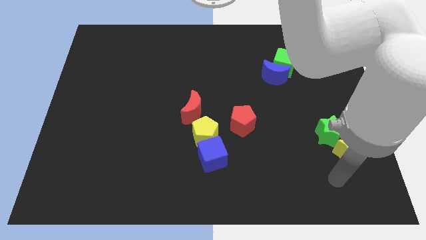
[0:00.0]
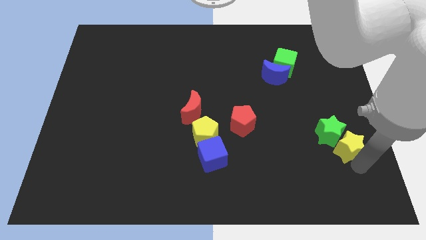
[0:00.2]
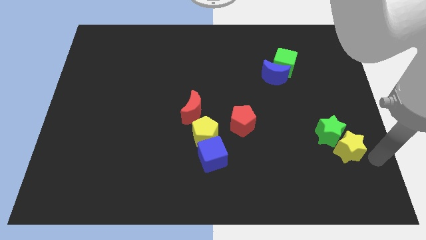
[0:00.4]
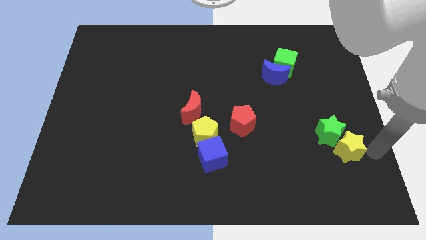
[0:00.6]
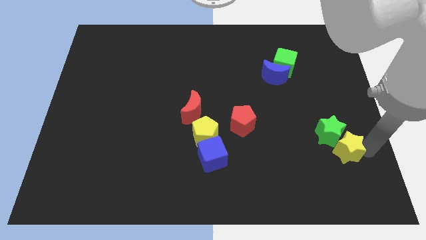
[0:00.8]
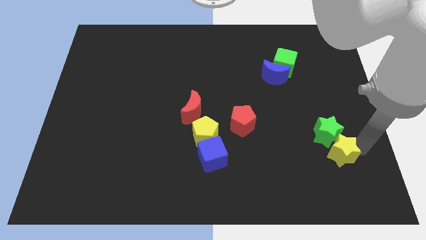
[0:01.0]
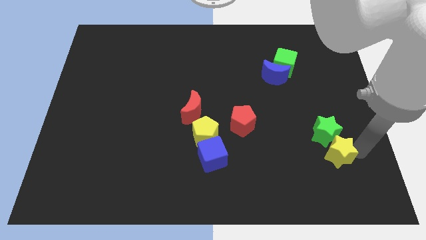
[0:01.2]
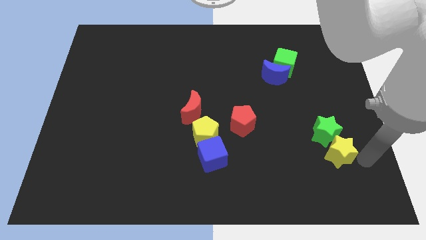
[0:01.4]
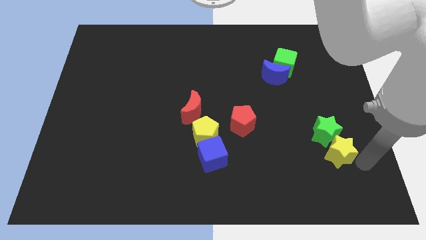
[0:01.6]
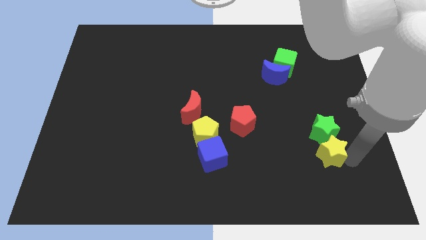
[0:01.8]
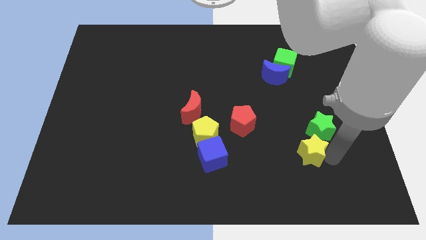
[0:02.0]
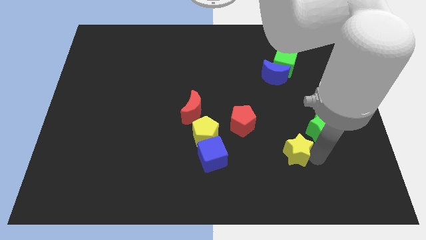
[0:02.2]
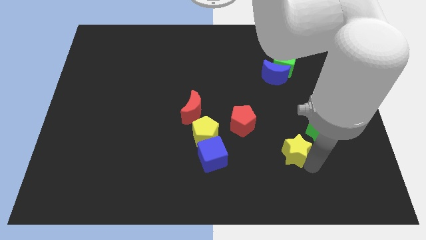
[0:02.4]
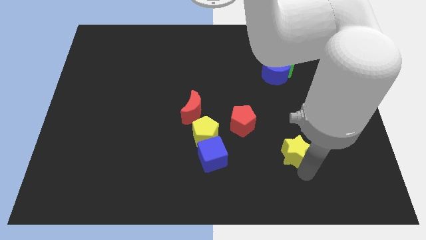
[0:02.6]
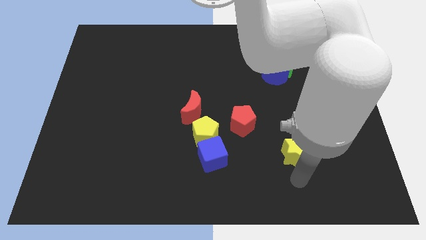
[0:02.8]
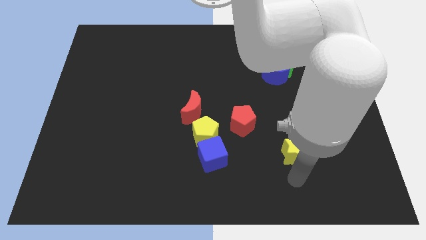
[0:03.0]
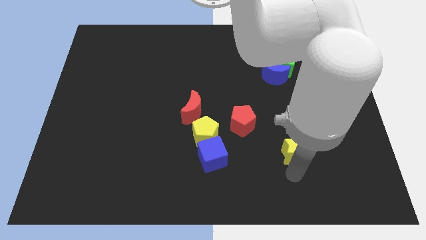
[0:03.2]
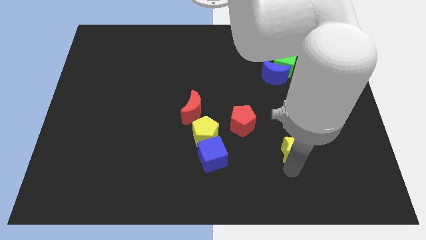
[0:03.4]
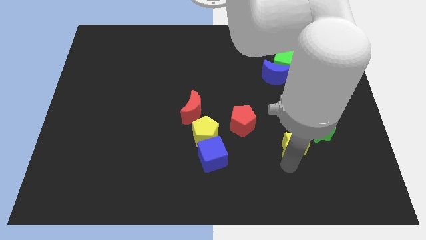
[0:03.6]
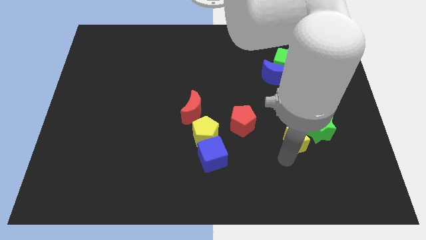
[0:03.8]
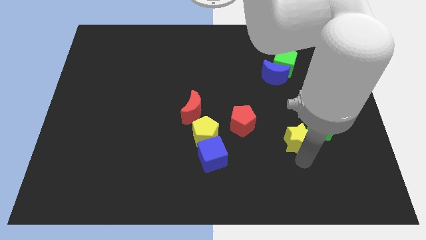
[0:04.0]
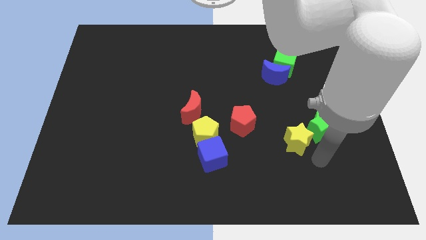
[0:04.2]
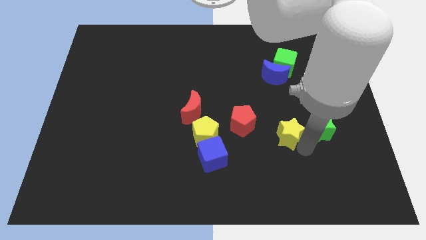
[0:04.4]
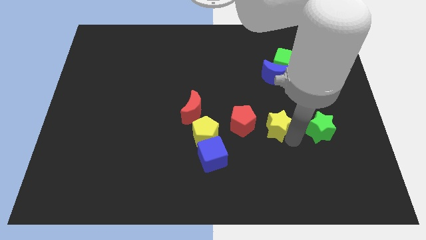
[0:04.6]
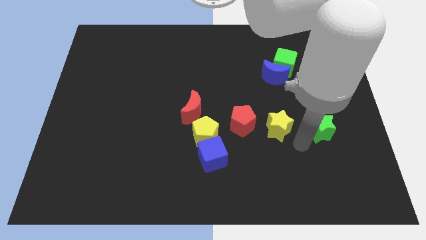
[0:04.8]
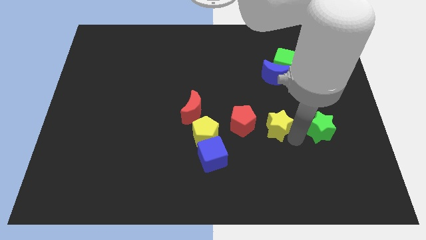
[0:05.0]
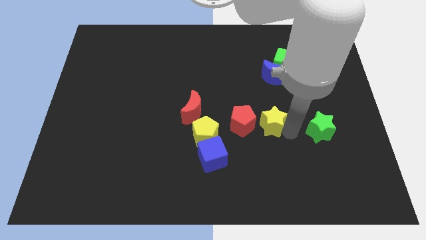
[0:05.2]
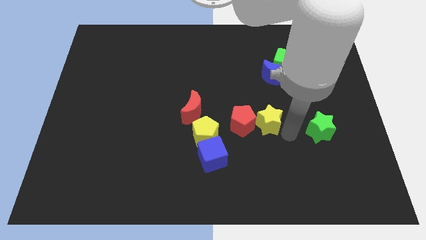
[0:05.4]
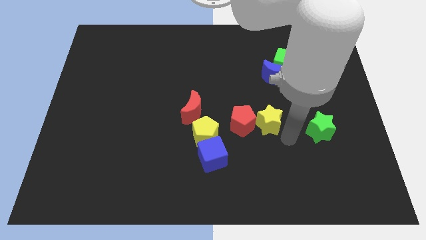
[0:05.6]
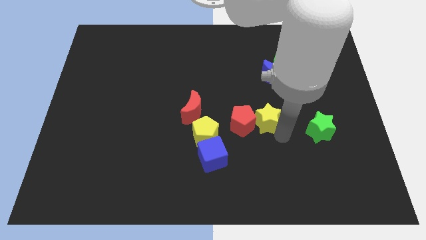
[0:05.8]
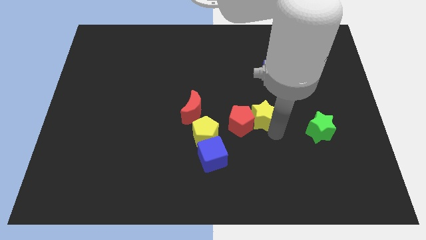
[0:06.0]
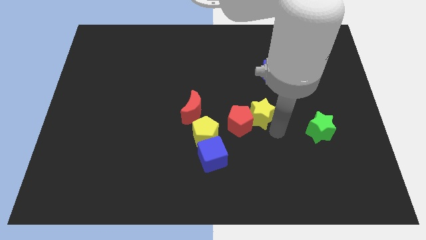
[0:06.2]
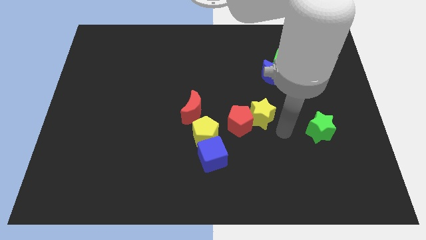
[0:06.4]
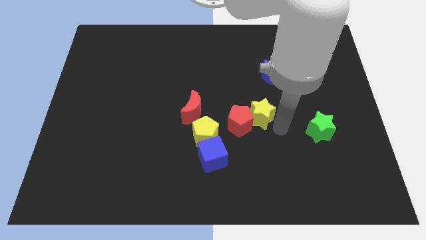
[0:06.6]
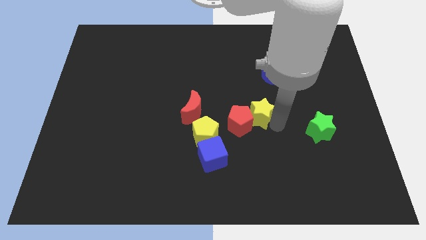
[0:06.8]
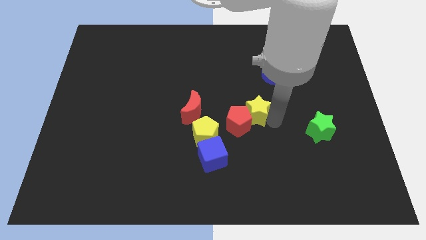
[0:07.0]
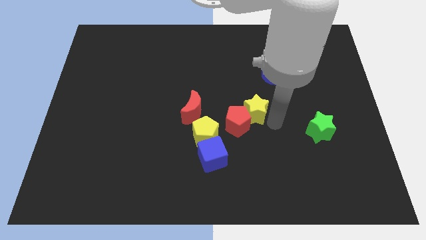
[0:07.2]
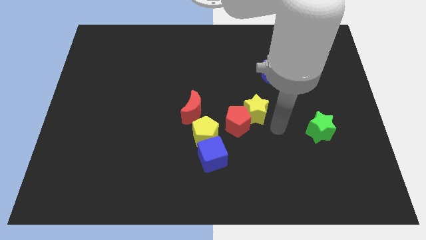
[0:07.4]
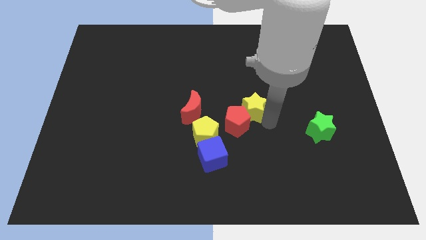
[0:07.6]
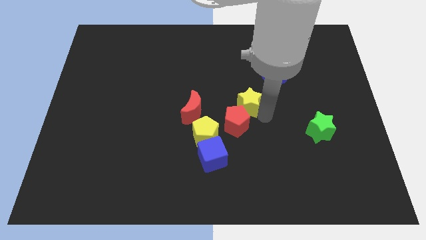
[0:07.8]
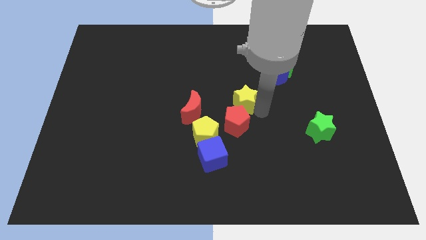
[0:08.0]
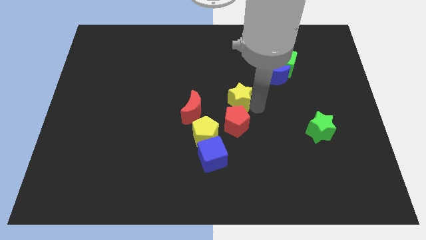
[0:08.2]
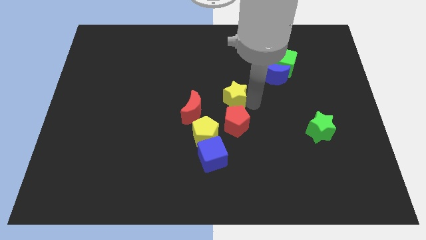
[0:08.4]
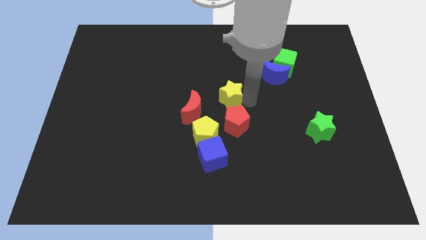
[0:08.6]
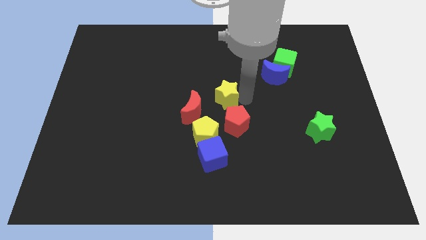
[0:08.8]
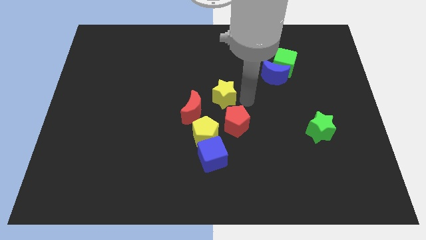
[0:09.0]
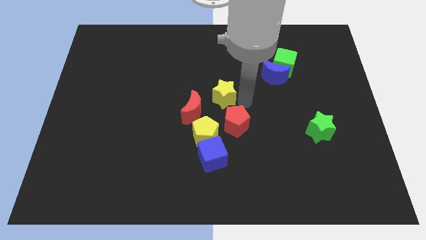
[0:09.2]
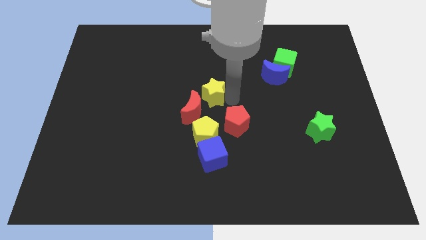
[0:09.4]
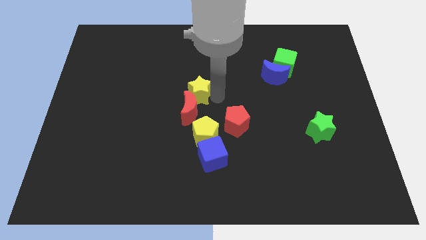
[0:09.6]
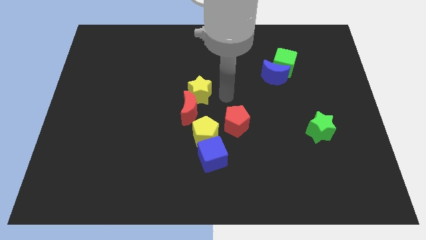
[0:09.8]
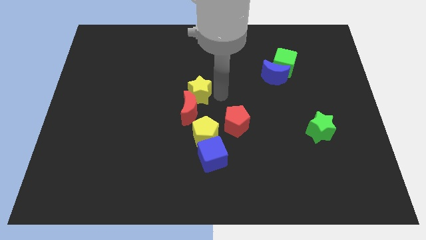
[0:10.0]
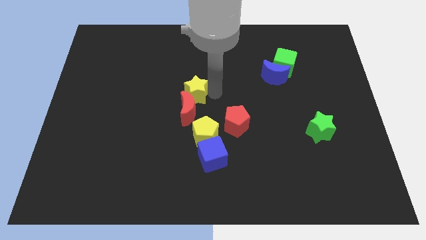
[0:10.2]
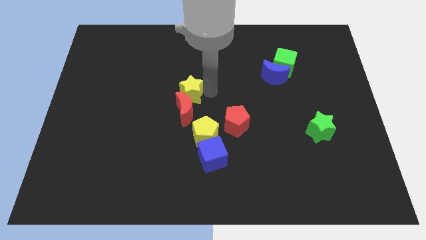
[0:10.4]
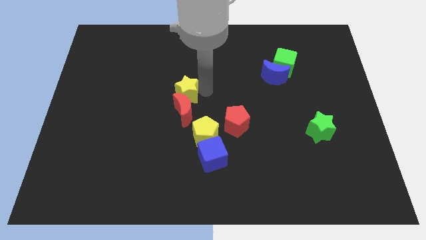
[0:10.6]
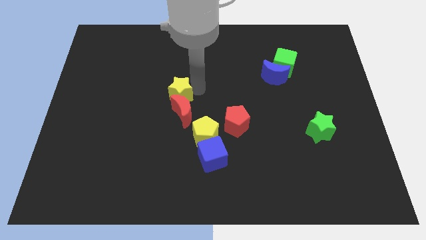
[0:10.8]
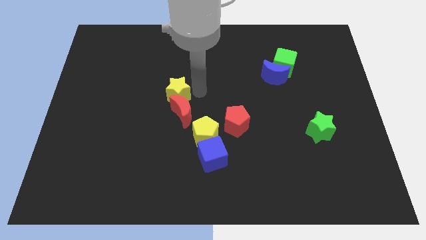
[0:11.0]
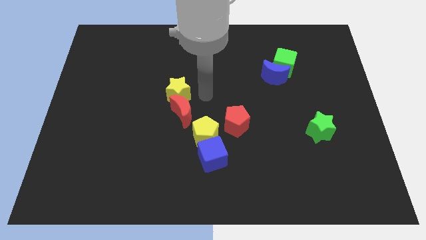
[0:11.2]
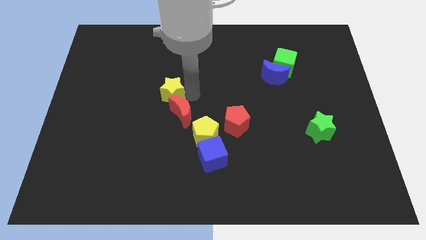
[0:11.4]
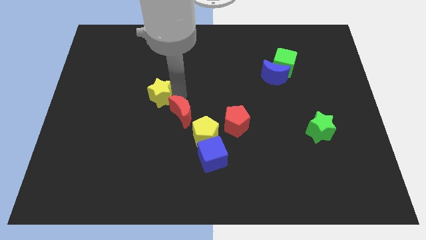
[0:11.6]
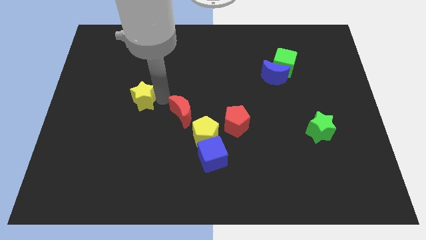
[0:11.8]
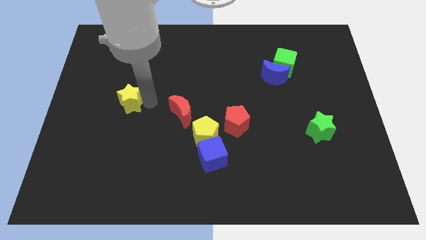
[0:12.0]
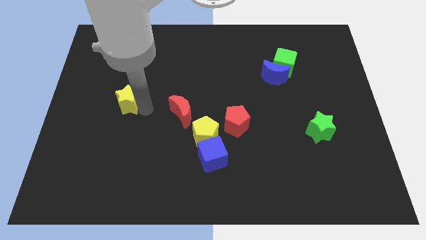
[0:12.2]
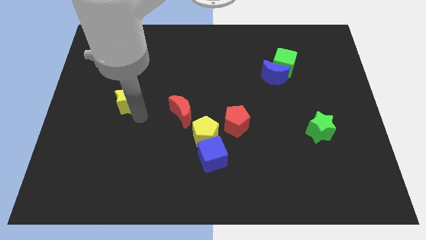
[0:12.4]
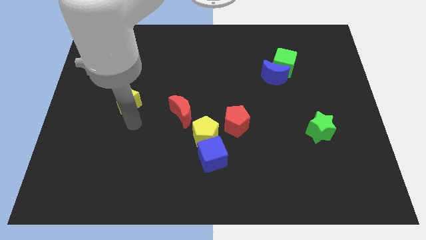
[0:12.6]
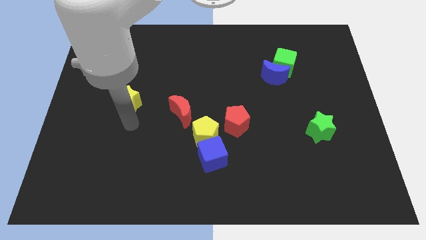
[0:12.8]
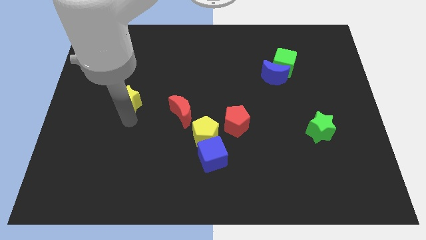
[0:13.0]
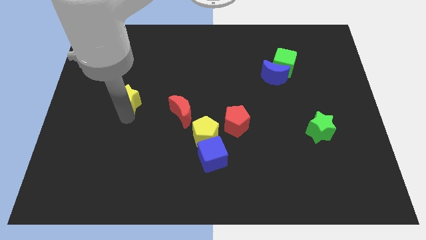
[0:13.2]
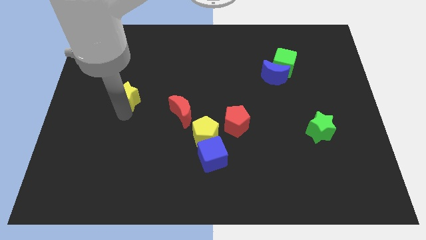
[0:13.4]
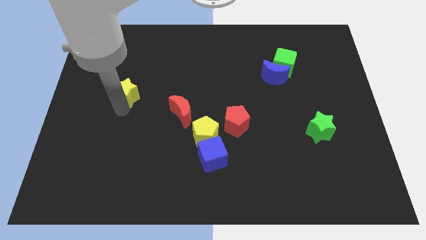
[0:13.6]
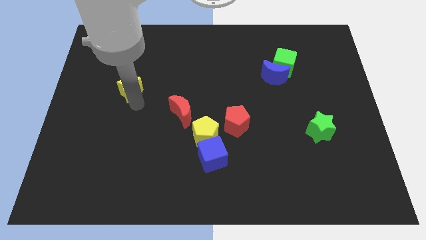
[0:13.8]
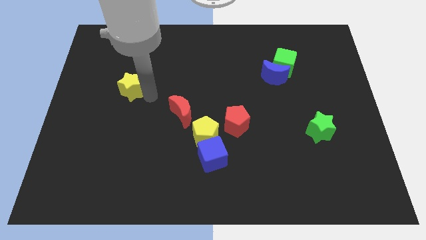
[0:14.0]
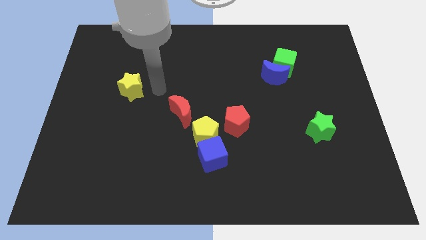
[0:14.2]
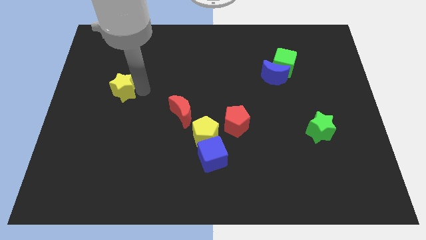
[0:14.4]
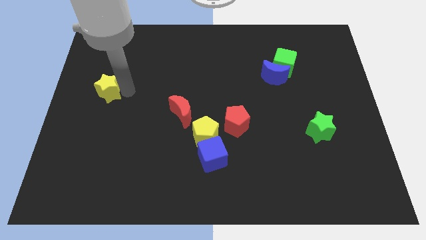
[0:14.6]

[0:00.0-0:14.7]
slide the yellow star to the left side
